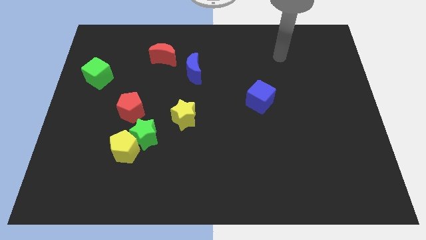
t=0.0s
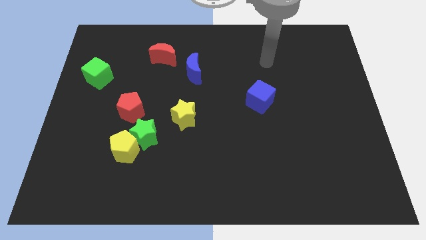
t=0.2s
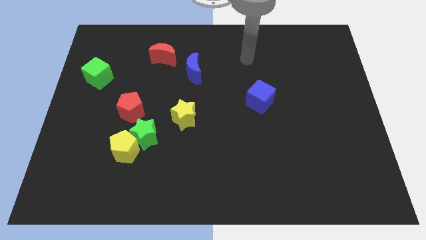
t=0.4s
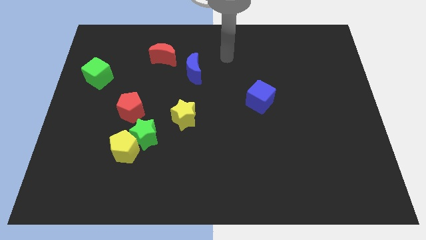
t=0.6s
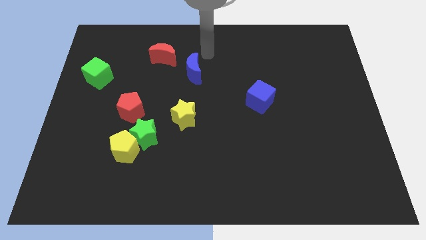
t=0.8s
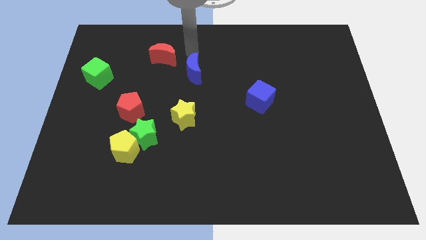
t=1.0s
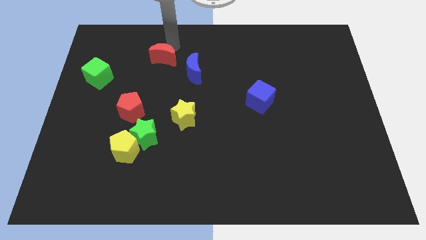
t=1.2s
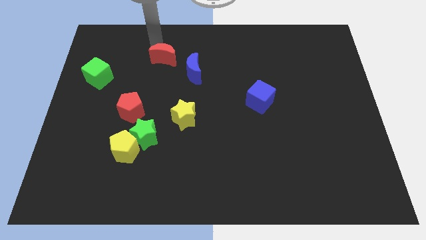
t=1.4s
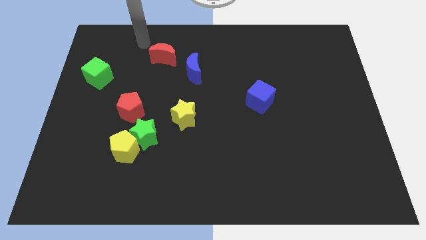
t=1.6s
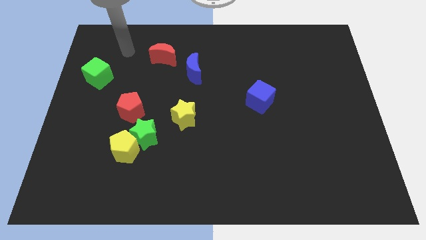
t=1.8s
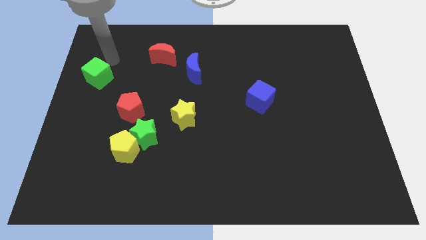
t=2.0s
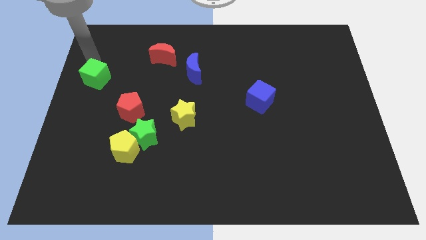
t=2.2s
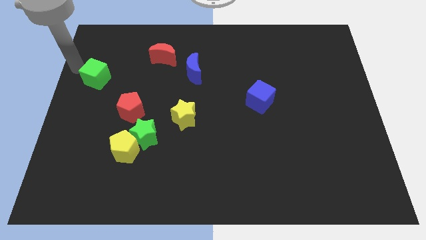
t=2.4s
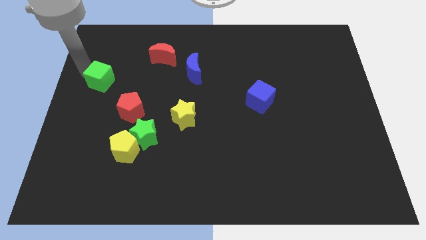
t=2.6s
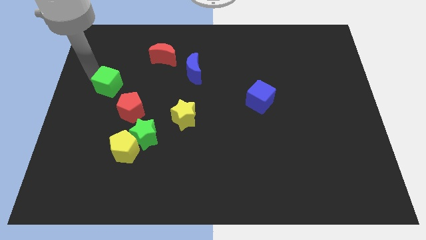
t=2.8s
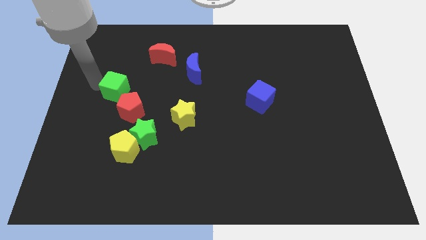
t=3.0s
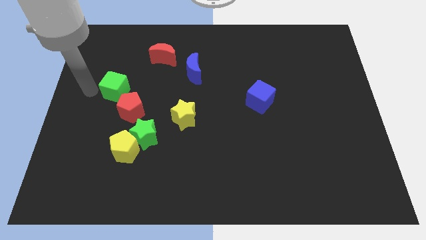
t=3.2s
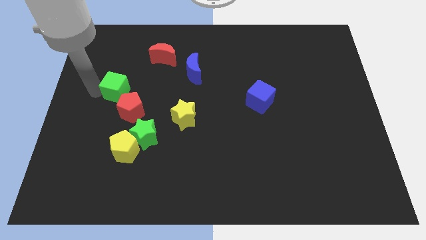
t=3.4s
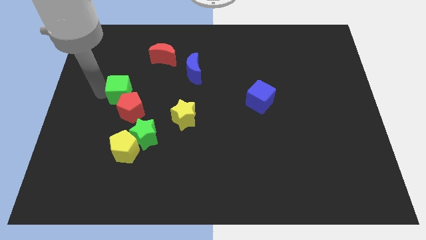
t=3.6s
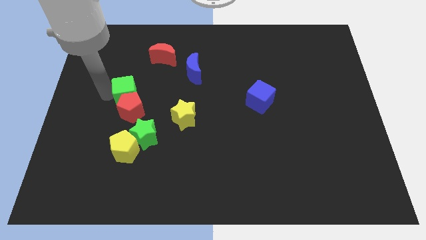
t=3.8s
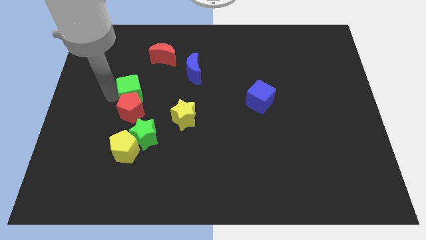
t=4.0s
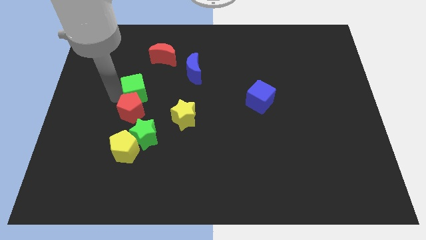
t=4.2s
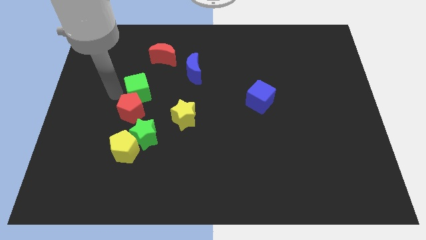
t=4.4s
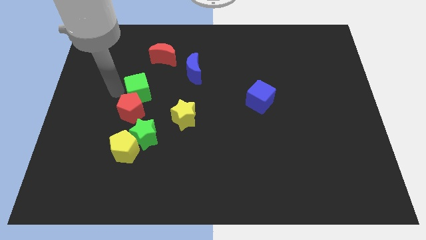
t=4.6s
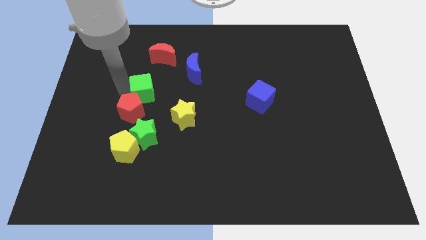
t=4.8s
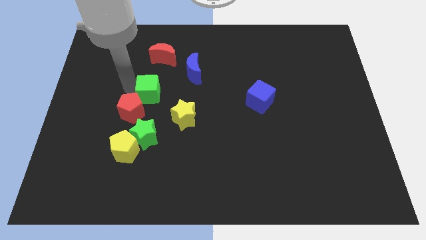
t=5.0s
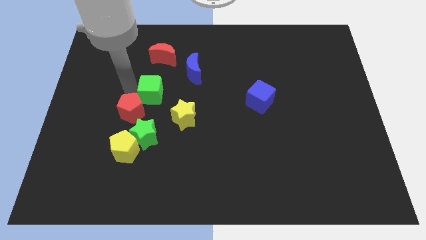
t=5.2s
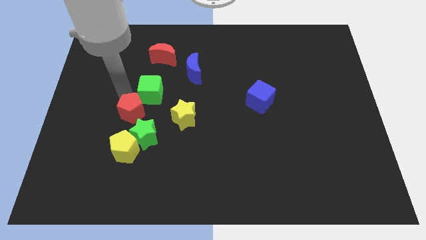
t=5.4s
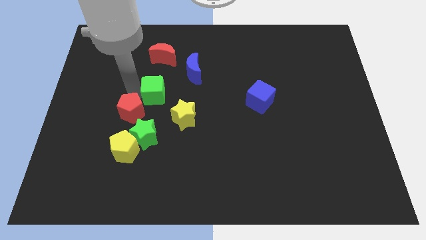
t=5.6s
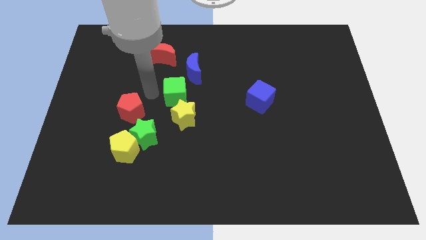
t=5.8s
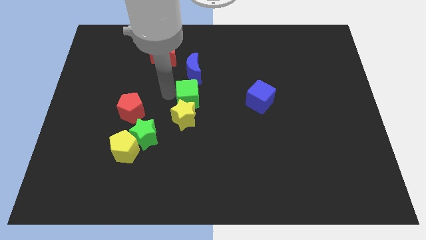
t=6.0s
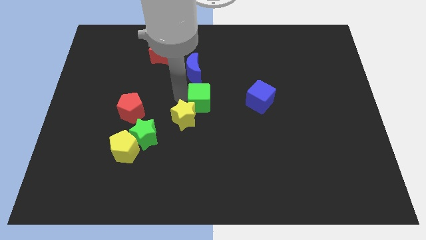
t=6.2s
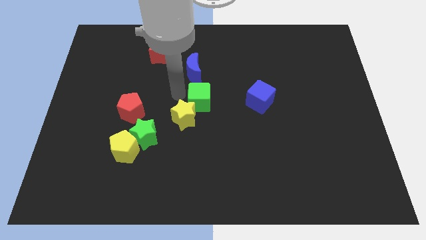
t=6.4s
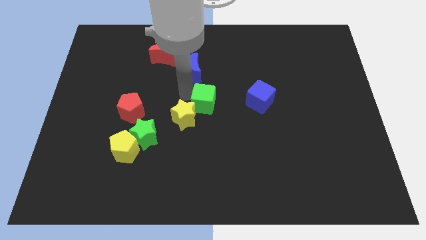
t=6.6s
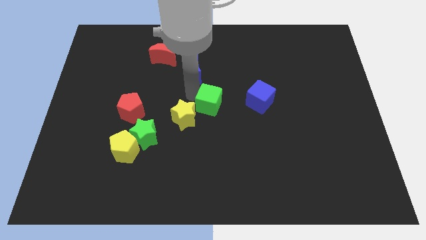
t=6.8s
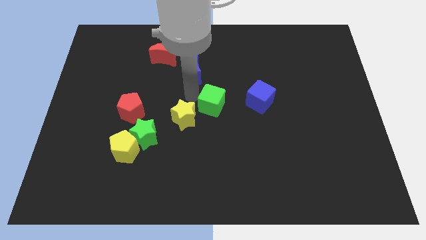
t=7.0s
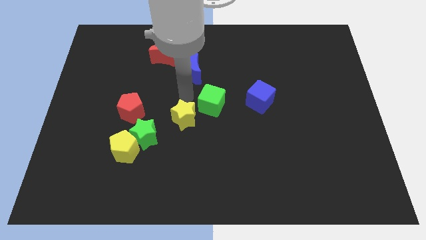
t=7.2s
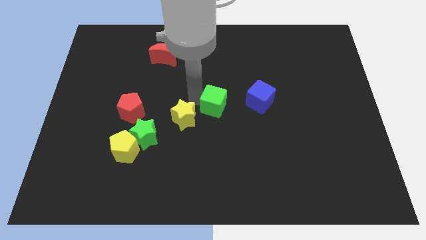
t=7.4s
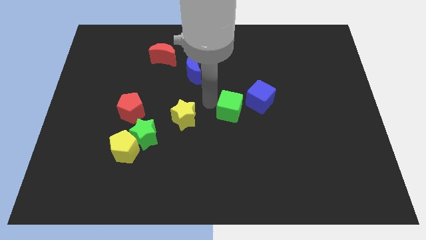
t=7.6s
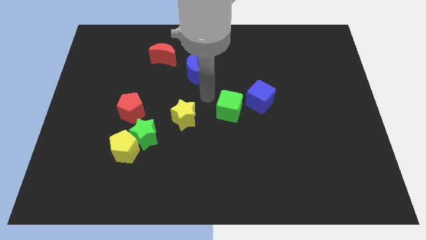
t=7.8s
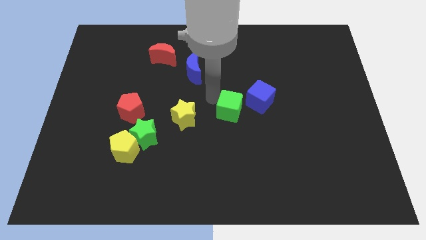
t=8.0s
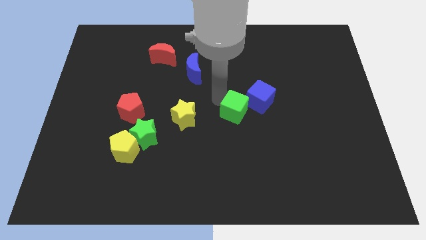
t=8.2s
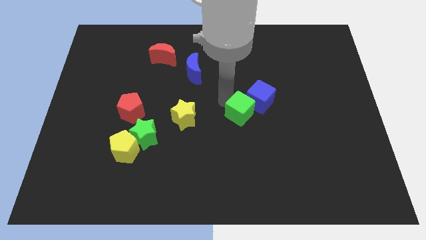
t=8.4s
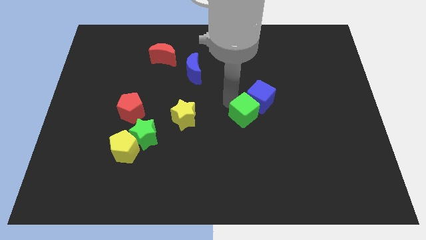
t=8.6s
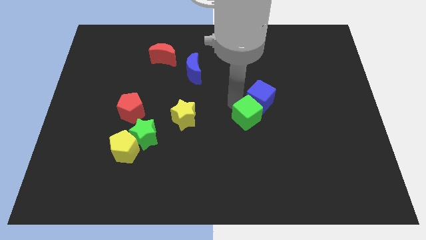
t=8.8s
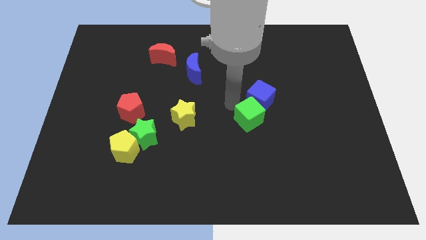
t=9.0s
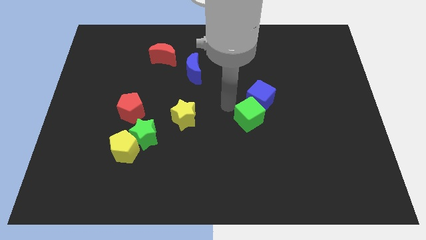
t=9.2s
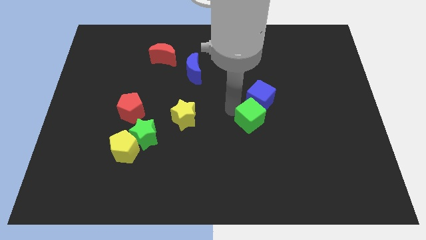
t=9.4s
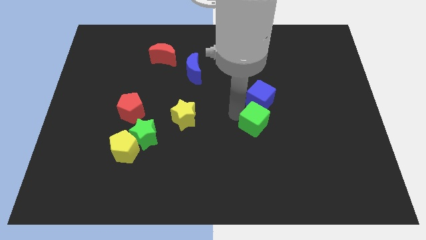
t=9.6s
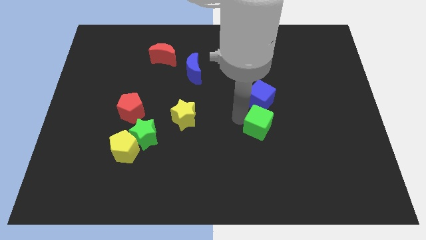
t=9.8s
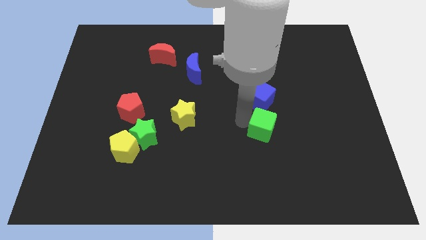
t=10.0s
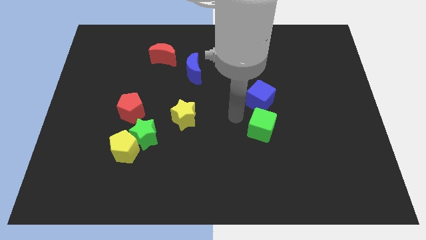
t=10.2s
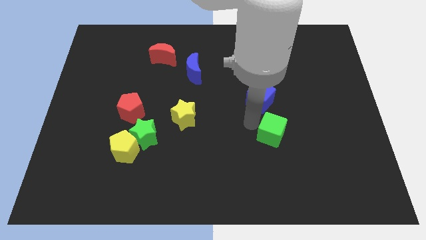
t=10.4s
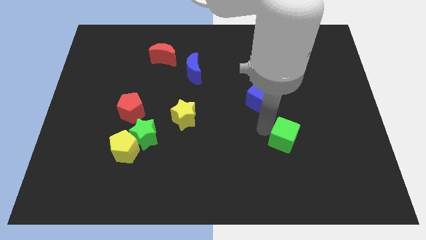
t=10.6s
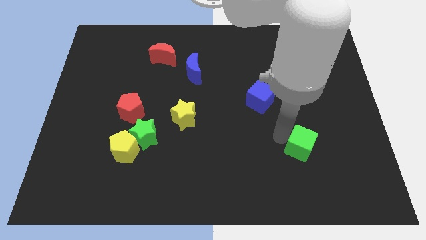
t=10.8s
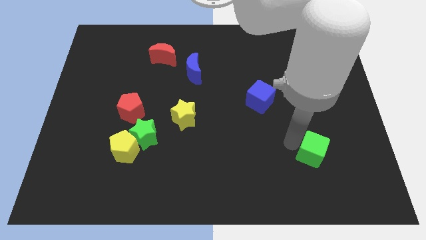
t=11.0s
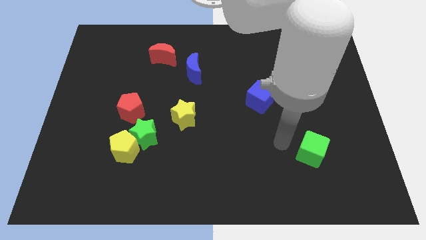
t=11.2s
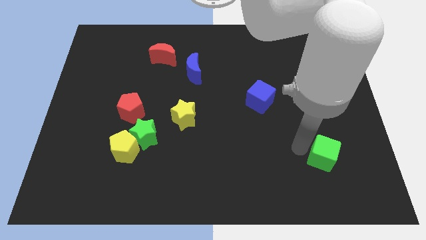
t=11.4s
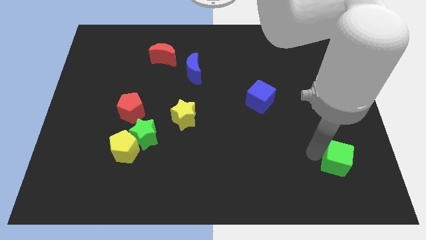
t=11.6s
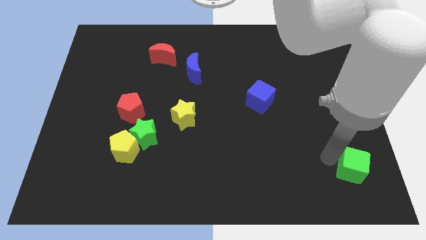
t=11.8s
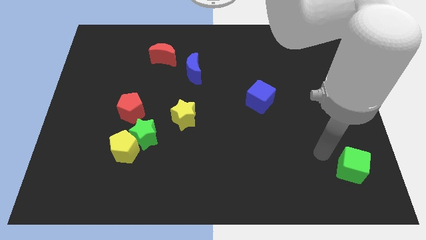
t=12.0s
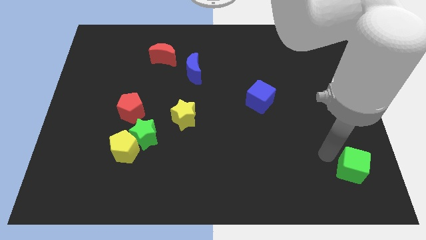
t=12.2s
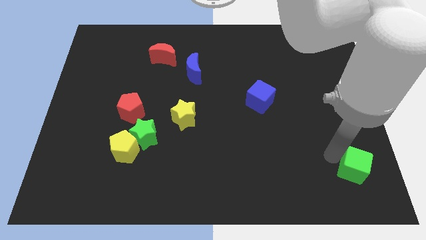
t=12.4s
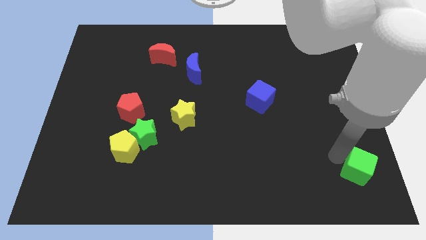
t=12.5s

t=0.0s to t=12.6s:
push the green cube to the bottom right corner
